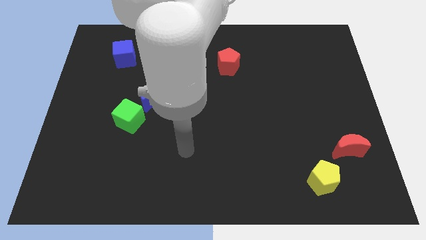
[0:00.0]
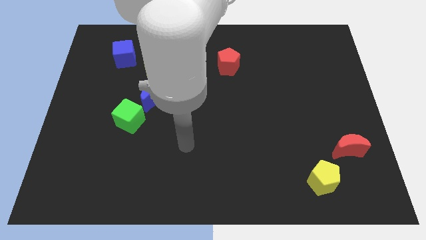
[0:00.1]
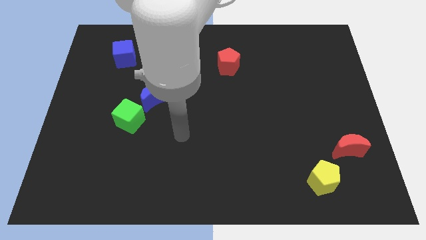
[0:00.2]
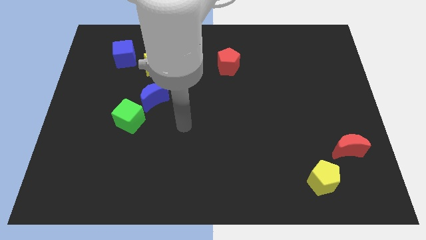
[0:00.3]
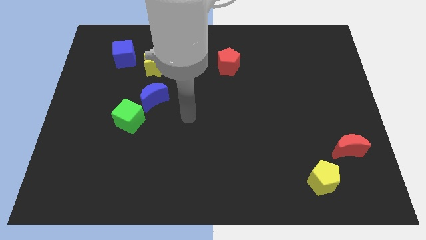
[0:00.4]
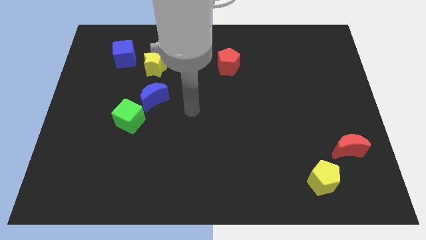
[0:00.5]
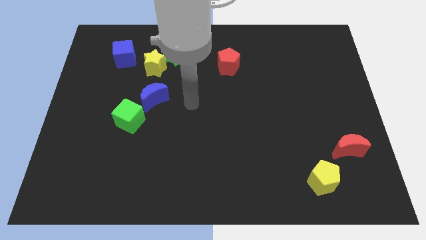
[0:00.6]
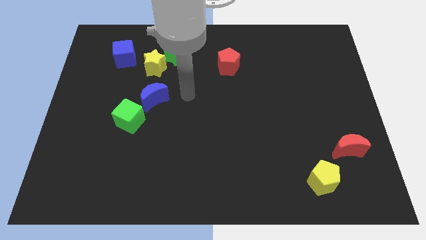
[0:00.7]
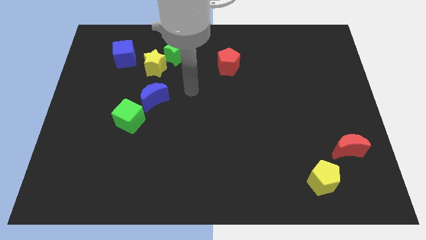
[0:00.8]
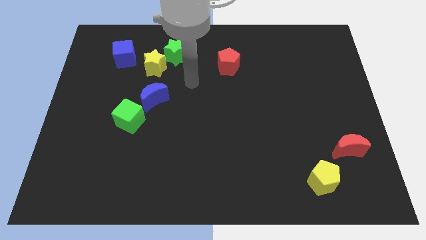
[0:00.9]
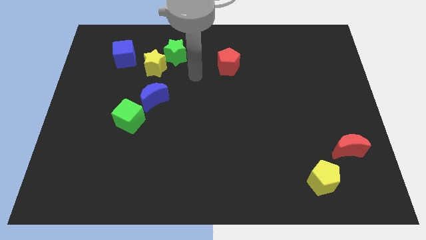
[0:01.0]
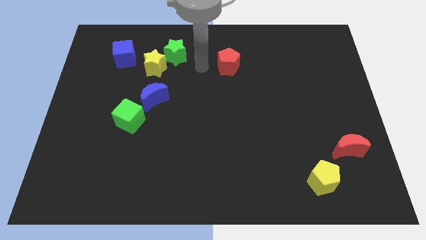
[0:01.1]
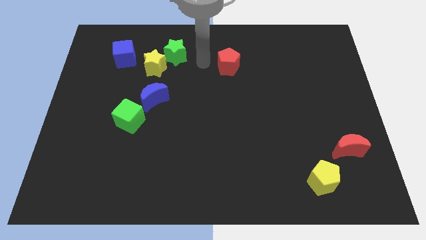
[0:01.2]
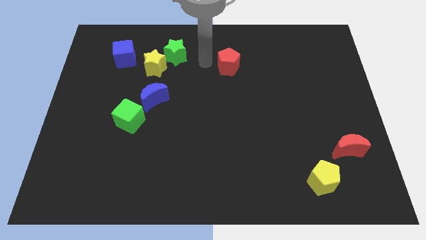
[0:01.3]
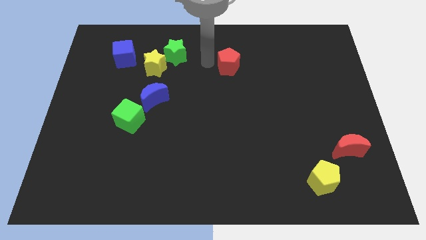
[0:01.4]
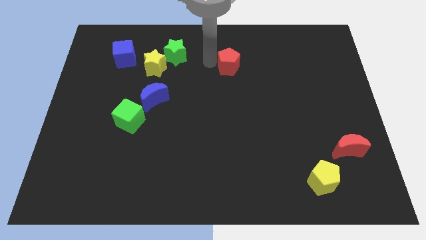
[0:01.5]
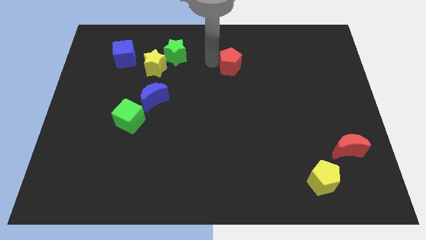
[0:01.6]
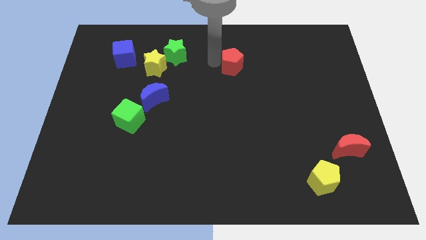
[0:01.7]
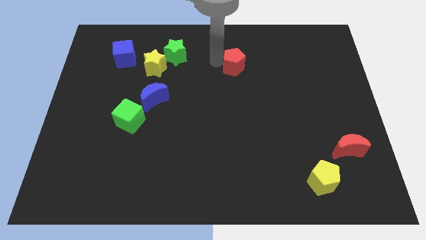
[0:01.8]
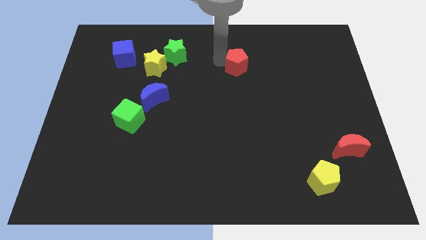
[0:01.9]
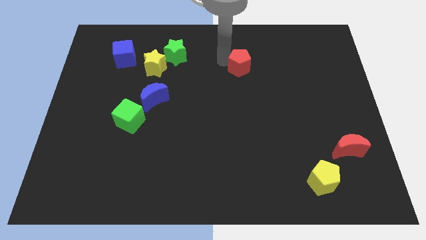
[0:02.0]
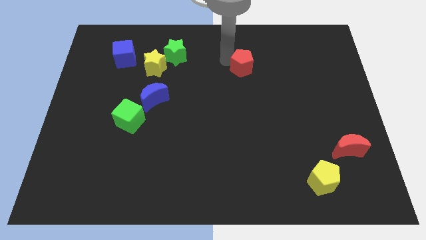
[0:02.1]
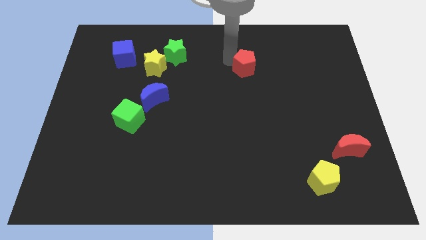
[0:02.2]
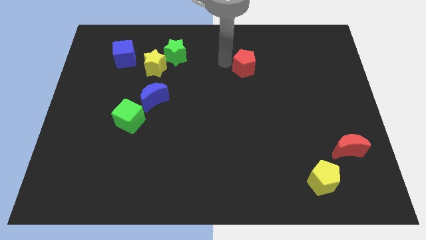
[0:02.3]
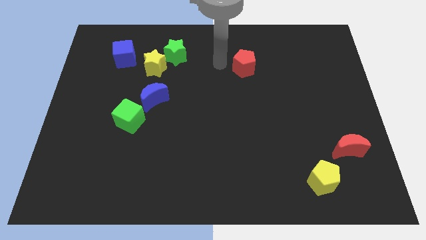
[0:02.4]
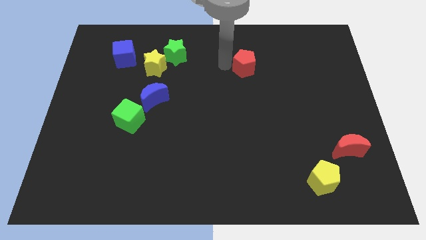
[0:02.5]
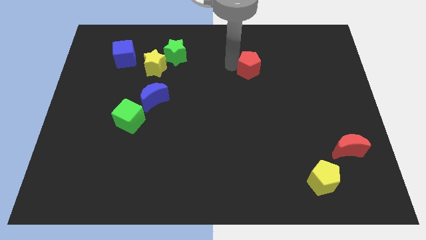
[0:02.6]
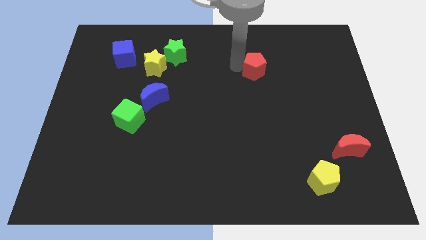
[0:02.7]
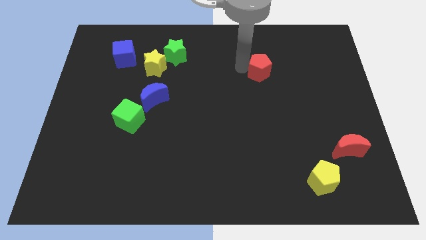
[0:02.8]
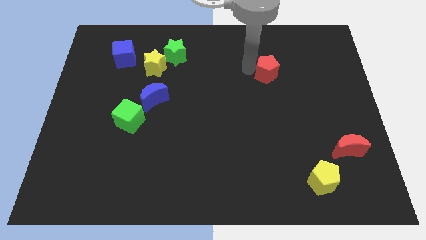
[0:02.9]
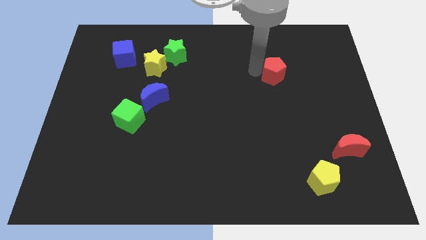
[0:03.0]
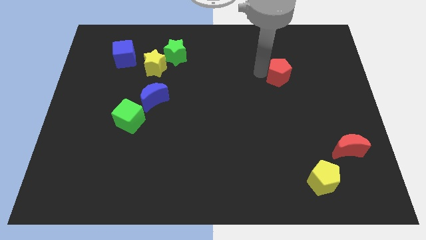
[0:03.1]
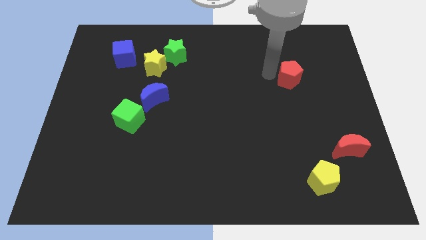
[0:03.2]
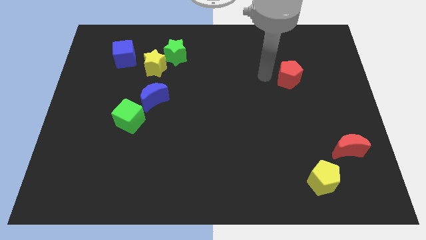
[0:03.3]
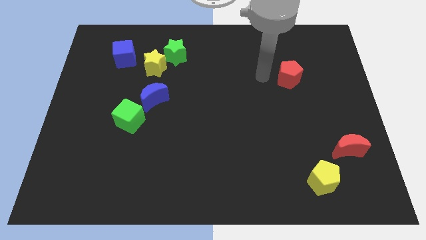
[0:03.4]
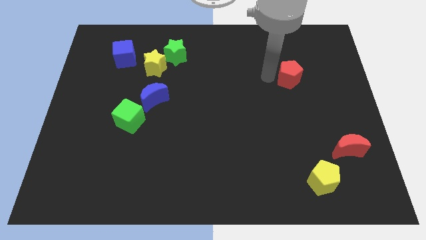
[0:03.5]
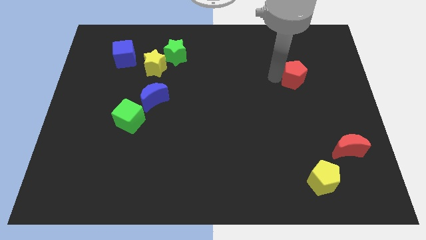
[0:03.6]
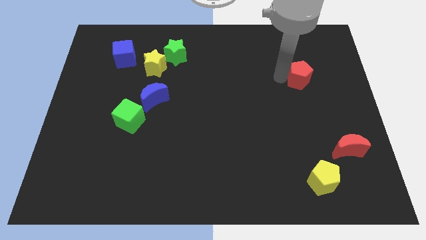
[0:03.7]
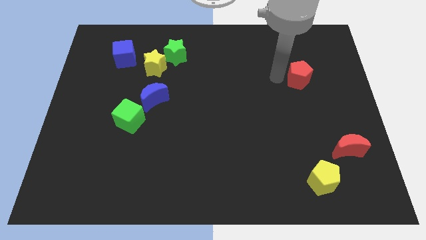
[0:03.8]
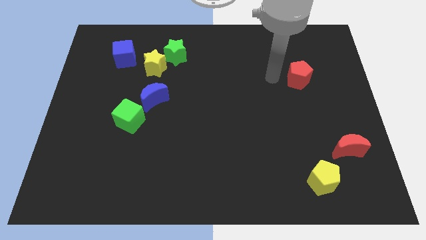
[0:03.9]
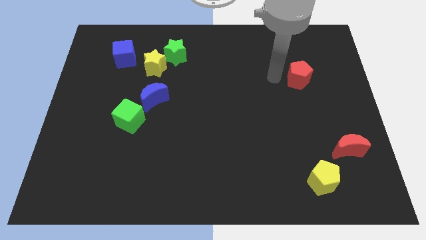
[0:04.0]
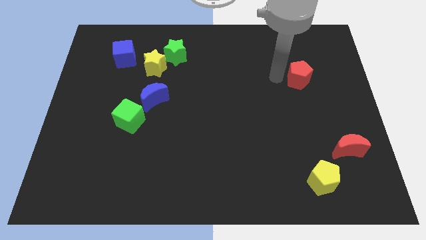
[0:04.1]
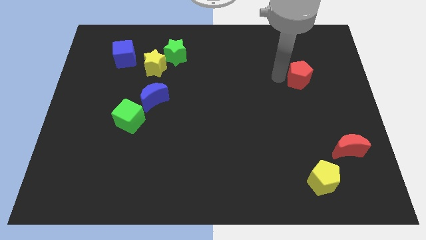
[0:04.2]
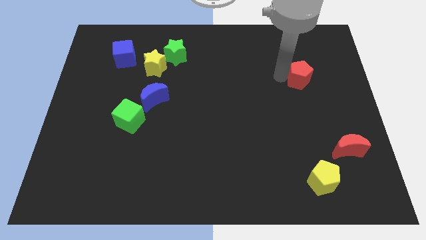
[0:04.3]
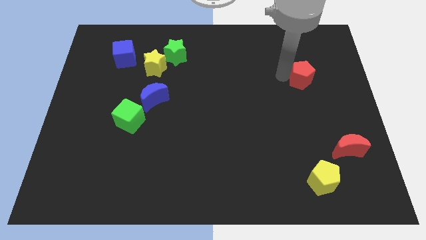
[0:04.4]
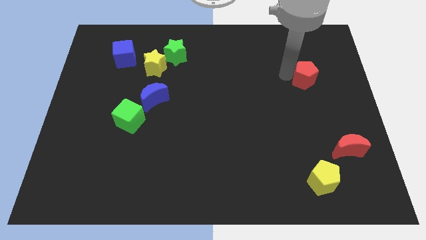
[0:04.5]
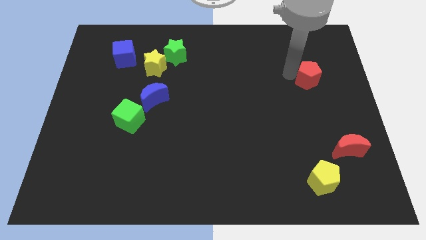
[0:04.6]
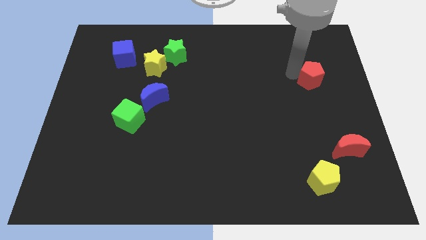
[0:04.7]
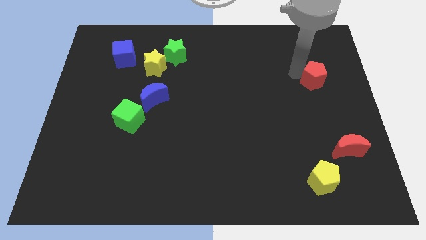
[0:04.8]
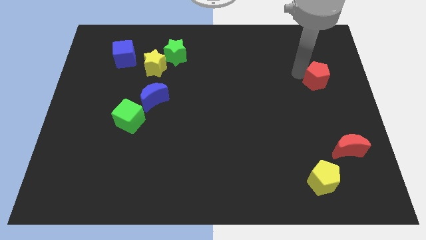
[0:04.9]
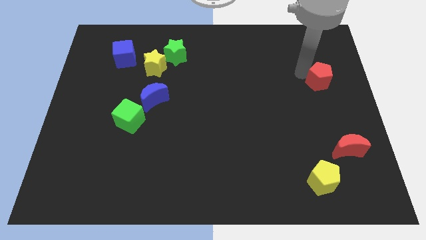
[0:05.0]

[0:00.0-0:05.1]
move the red pentagon to the center right

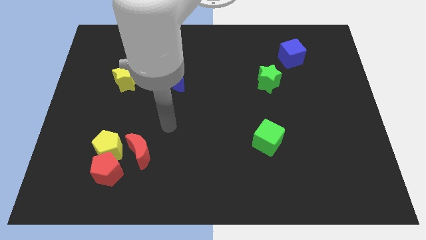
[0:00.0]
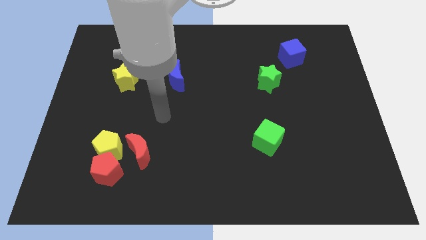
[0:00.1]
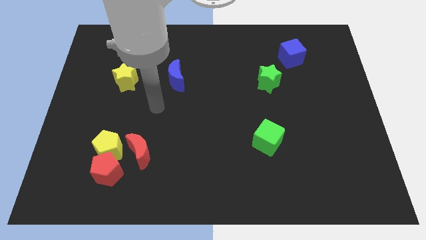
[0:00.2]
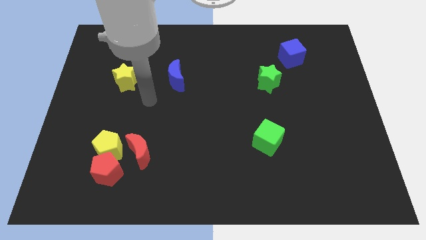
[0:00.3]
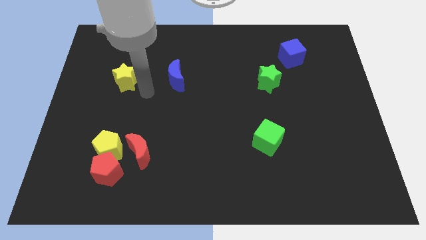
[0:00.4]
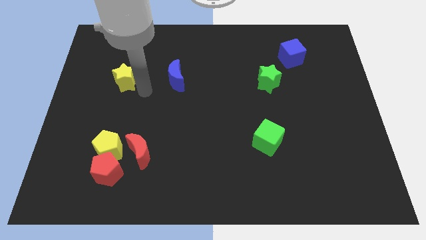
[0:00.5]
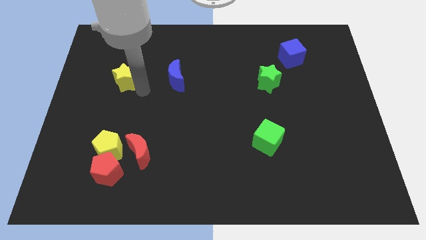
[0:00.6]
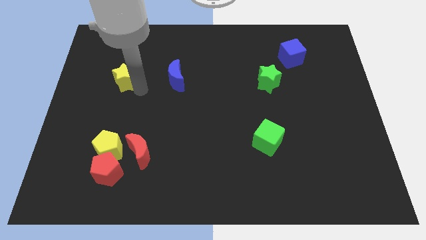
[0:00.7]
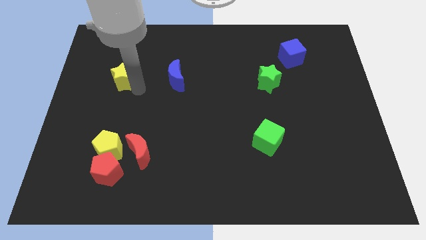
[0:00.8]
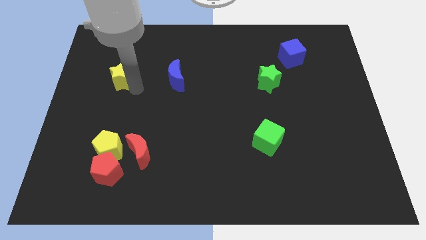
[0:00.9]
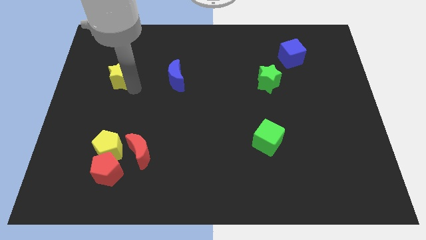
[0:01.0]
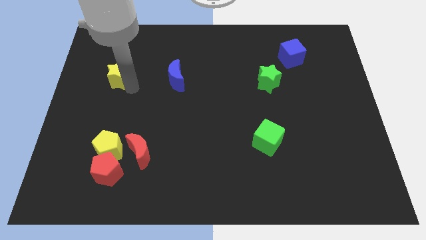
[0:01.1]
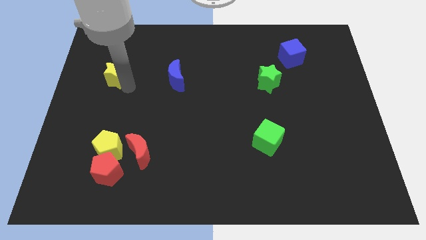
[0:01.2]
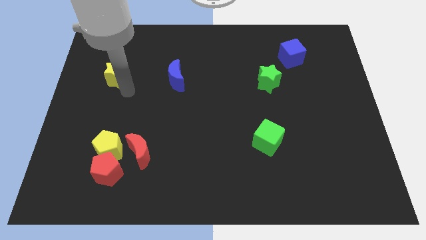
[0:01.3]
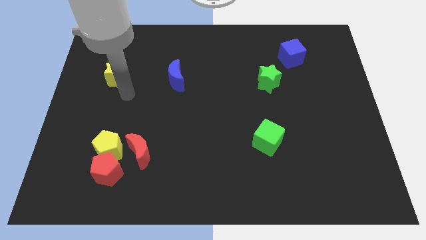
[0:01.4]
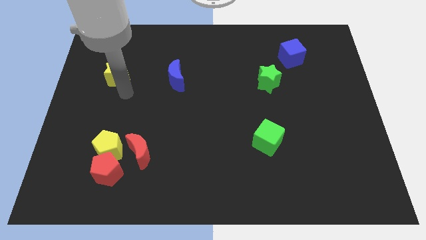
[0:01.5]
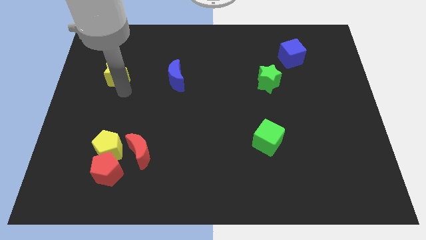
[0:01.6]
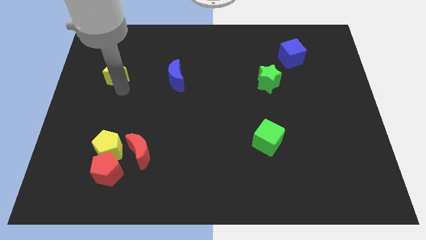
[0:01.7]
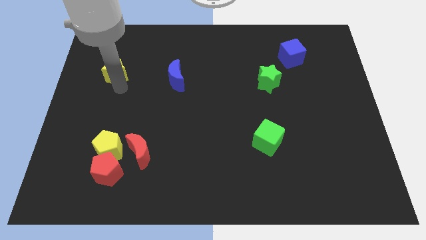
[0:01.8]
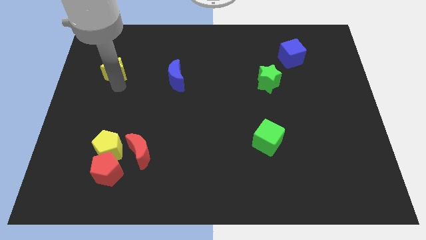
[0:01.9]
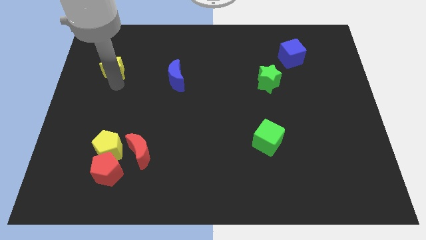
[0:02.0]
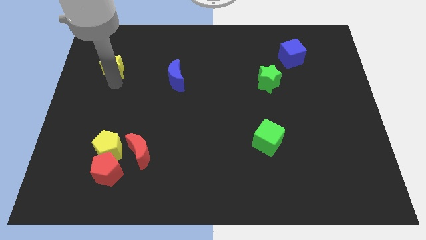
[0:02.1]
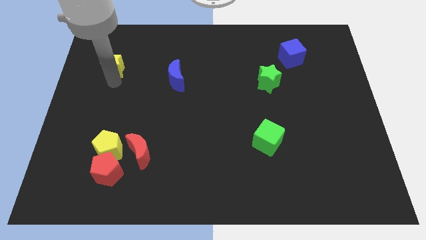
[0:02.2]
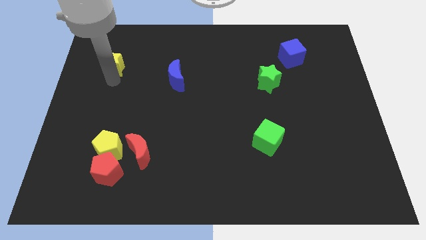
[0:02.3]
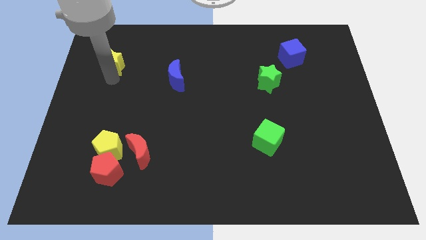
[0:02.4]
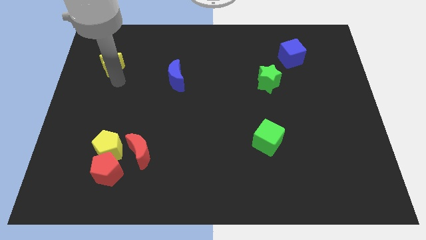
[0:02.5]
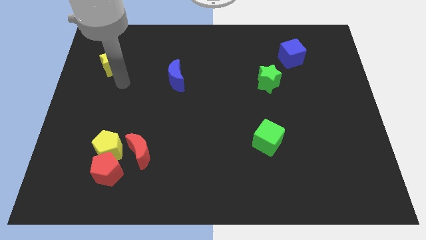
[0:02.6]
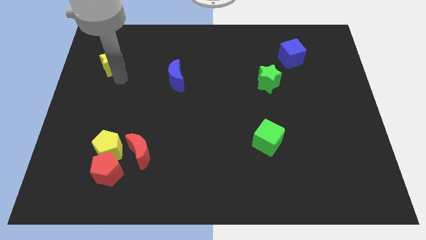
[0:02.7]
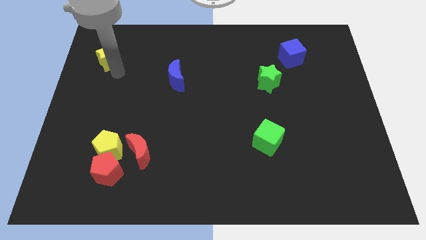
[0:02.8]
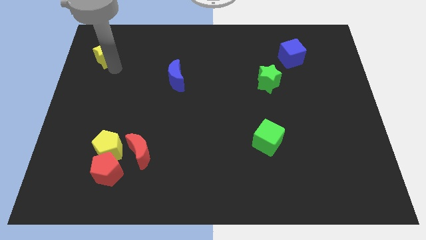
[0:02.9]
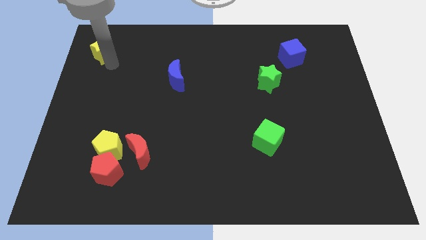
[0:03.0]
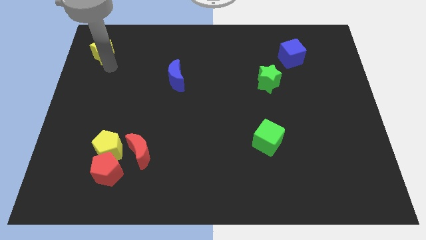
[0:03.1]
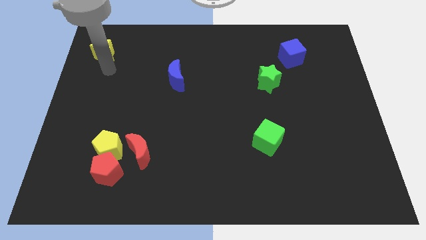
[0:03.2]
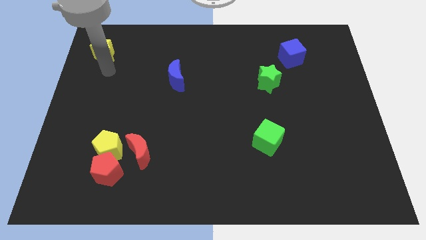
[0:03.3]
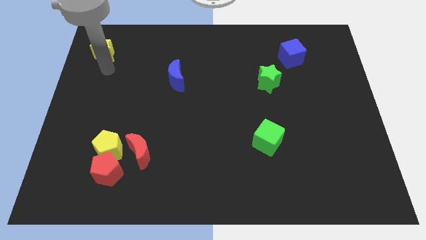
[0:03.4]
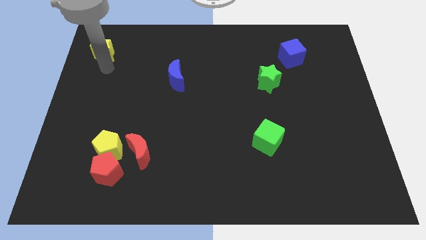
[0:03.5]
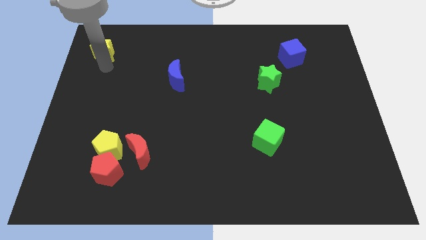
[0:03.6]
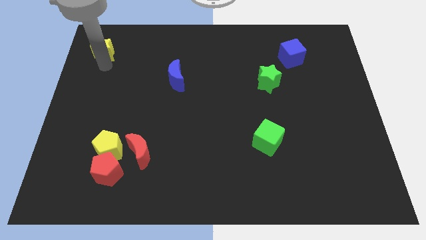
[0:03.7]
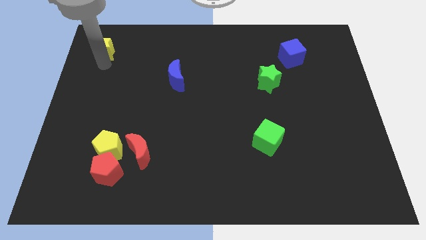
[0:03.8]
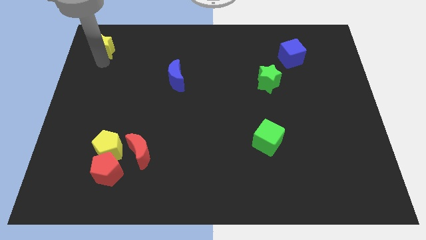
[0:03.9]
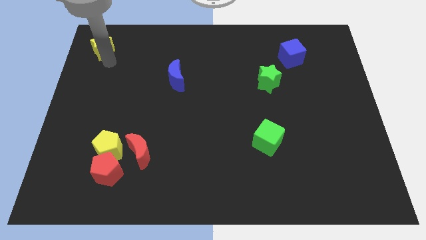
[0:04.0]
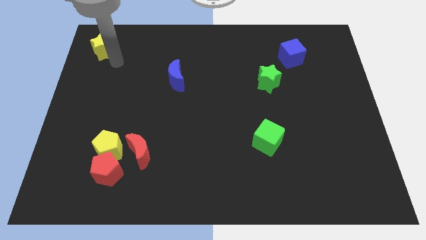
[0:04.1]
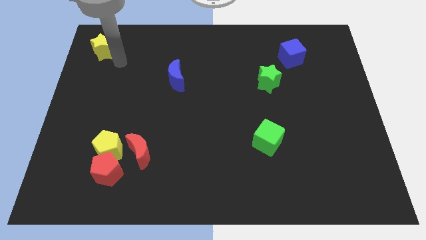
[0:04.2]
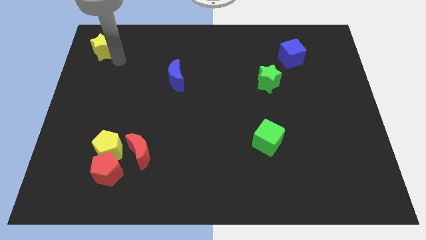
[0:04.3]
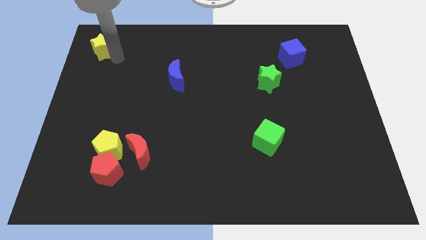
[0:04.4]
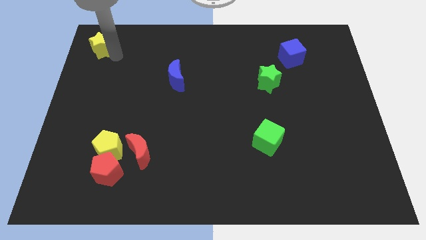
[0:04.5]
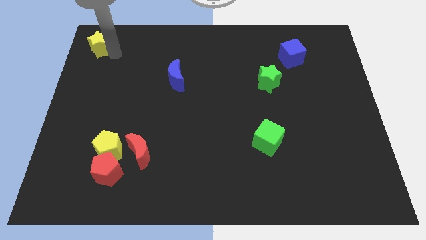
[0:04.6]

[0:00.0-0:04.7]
move the yellow star to the upper left corner
